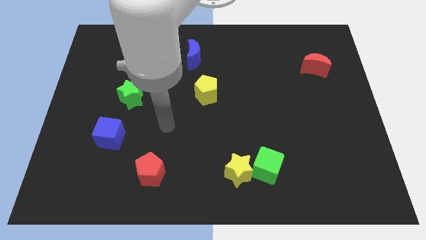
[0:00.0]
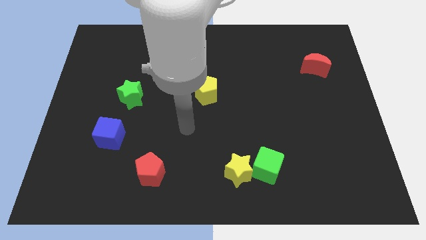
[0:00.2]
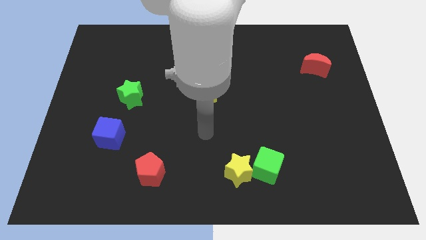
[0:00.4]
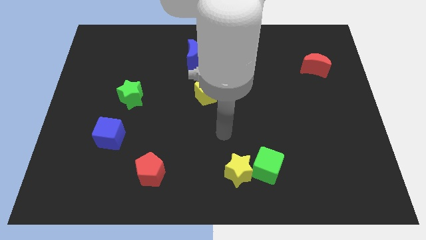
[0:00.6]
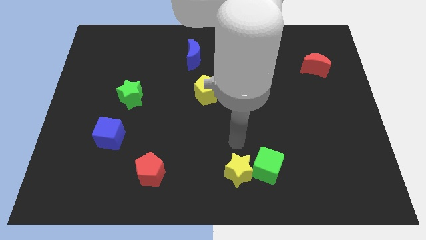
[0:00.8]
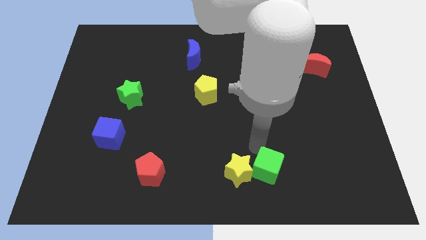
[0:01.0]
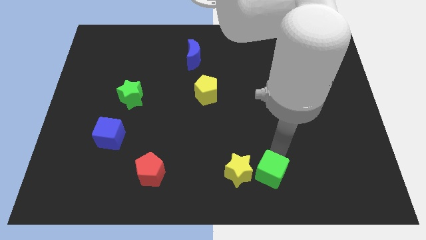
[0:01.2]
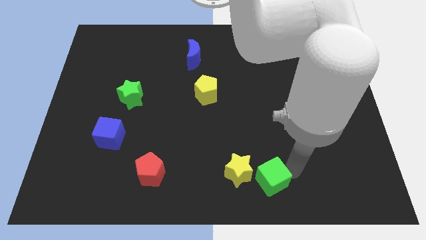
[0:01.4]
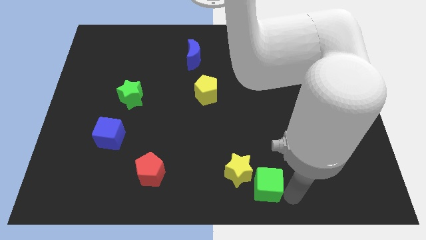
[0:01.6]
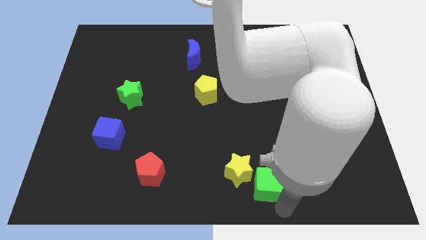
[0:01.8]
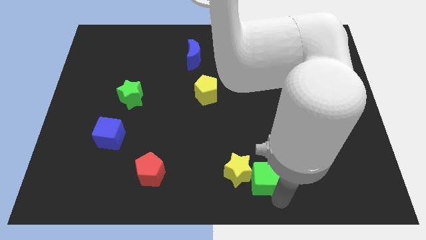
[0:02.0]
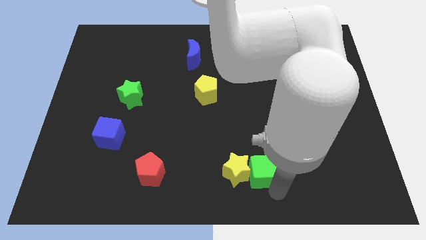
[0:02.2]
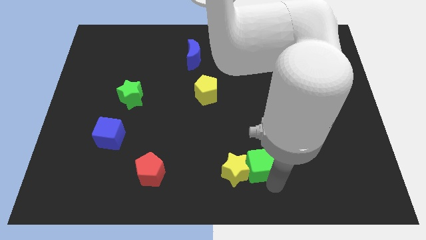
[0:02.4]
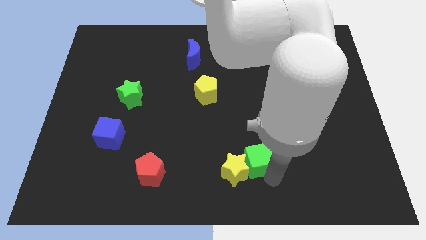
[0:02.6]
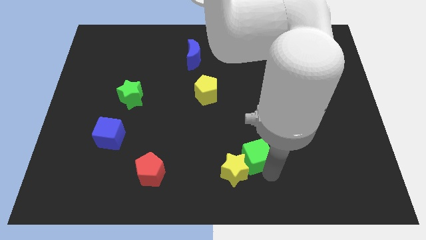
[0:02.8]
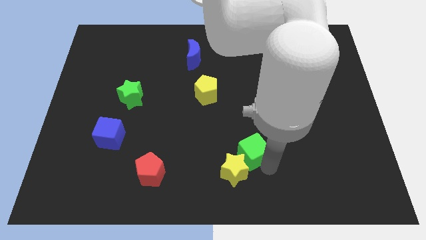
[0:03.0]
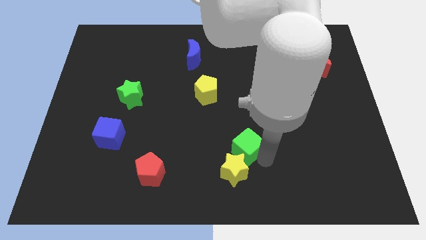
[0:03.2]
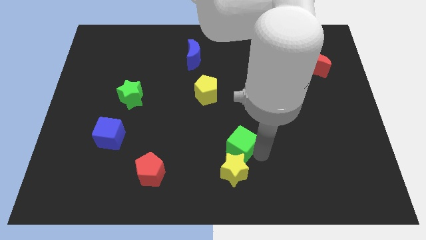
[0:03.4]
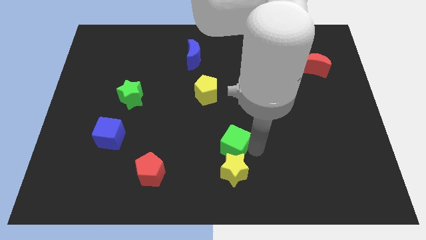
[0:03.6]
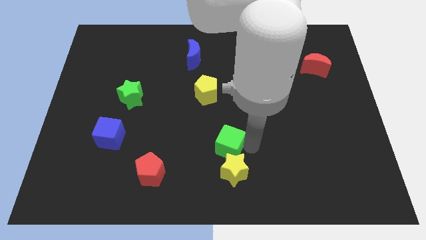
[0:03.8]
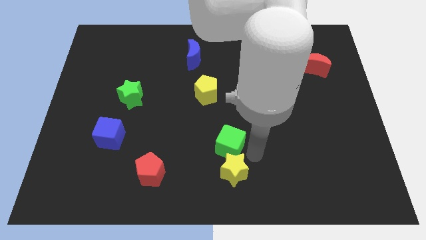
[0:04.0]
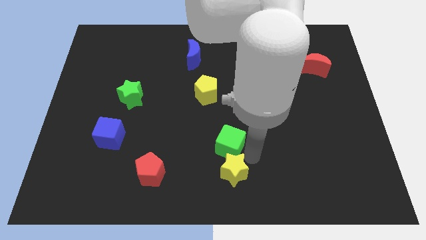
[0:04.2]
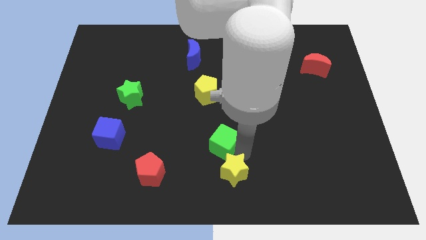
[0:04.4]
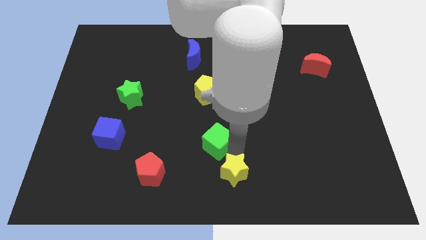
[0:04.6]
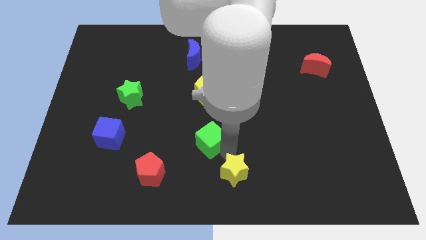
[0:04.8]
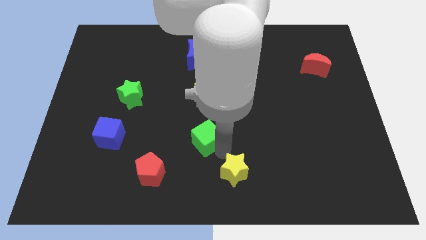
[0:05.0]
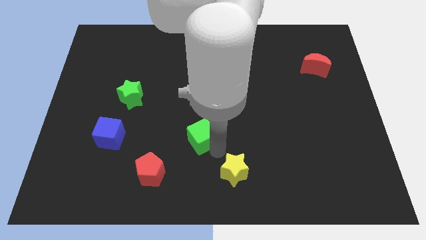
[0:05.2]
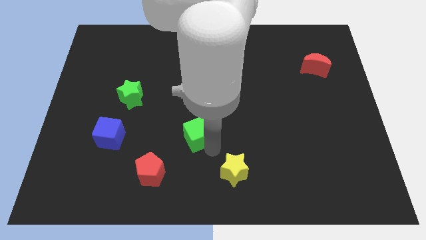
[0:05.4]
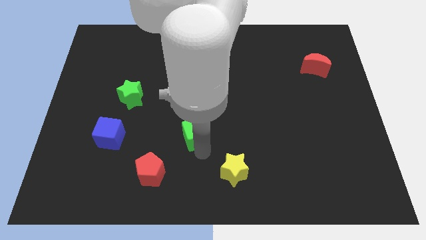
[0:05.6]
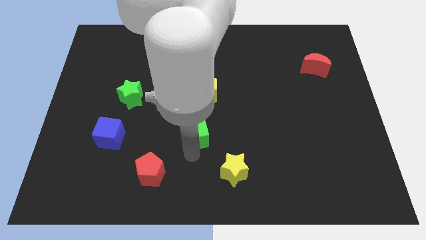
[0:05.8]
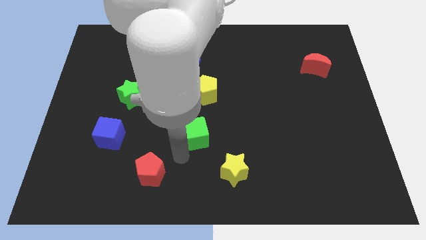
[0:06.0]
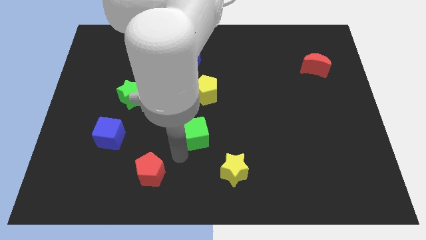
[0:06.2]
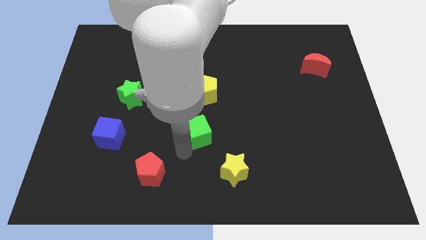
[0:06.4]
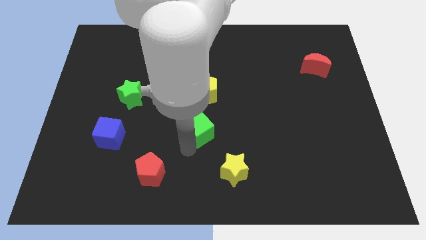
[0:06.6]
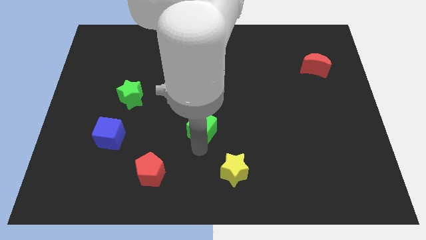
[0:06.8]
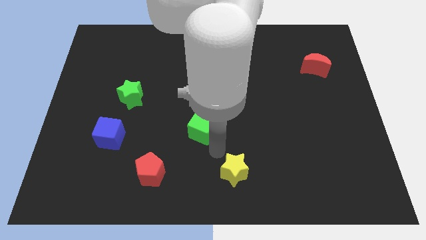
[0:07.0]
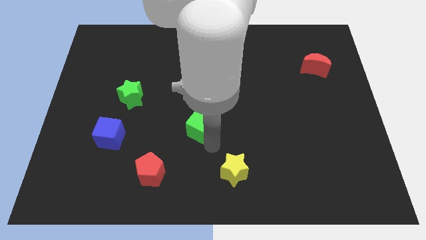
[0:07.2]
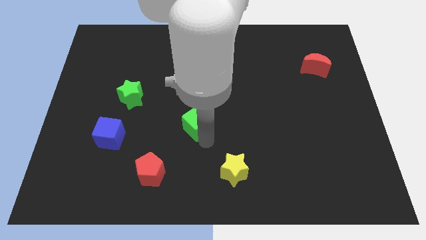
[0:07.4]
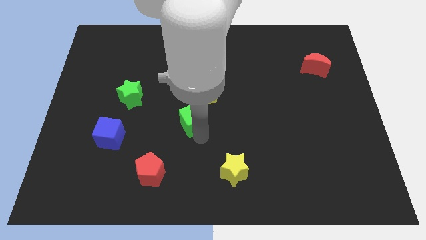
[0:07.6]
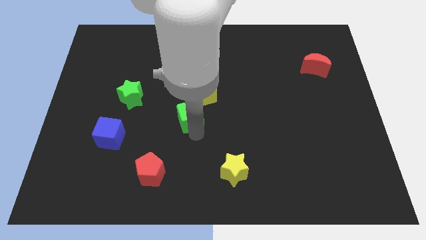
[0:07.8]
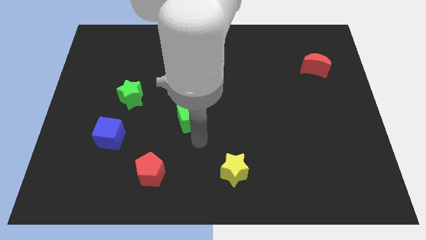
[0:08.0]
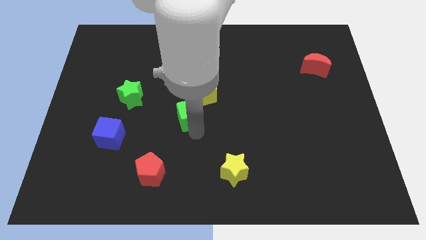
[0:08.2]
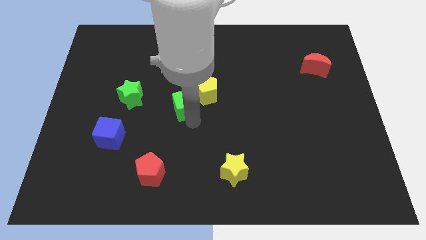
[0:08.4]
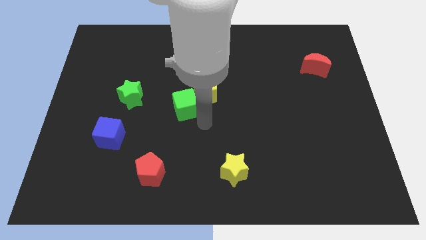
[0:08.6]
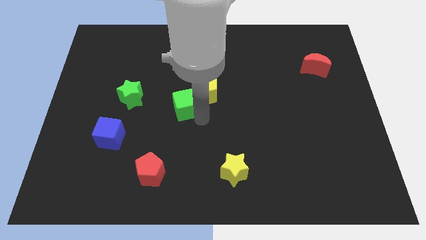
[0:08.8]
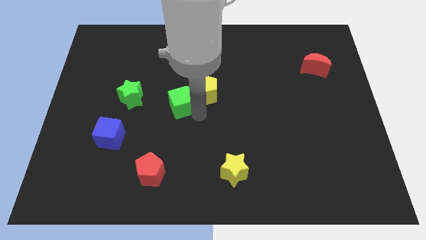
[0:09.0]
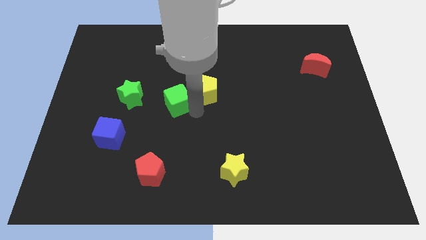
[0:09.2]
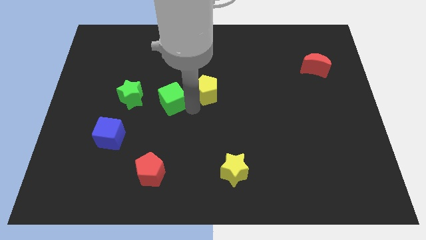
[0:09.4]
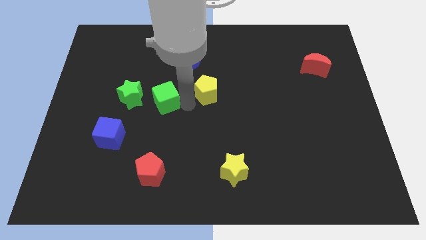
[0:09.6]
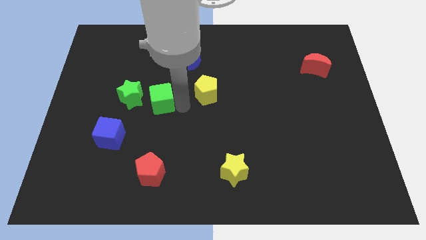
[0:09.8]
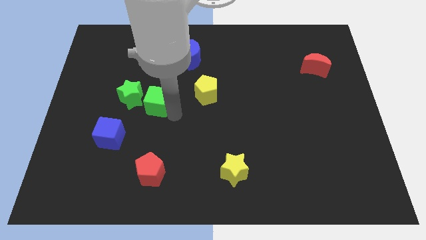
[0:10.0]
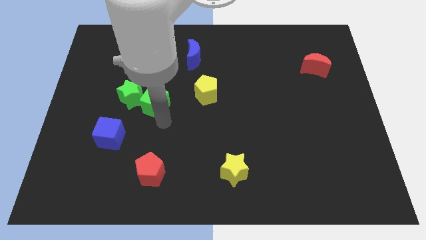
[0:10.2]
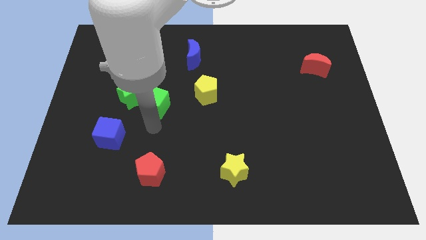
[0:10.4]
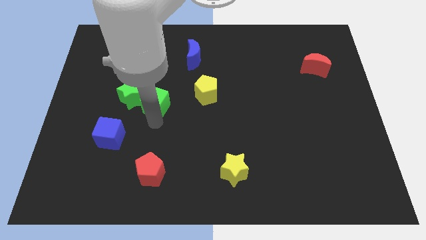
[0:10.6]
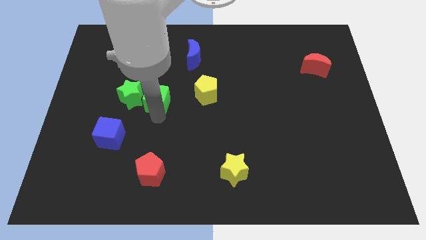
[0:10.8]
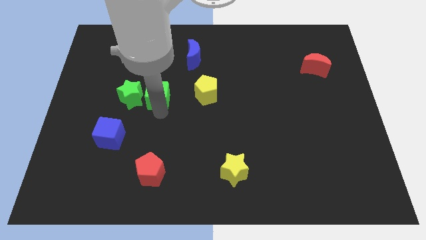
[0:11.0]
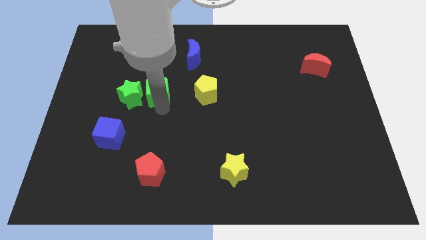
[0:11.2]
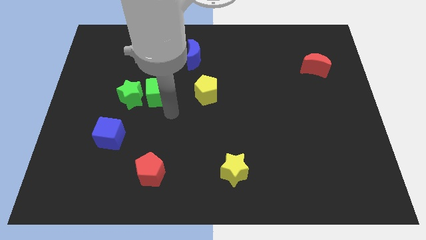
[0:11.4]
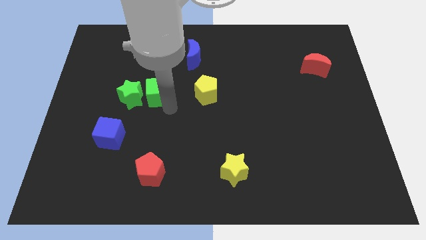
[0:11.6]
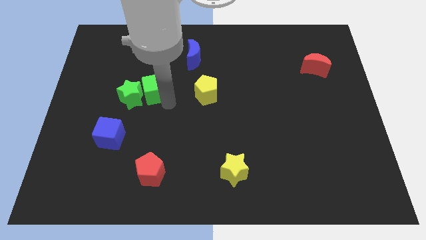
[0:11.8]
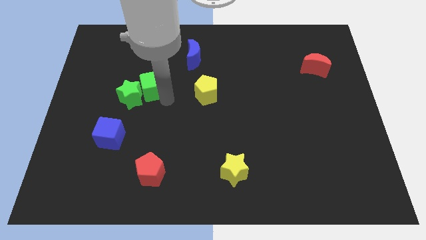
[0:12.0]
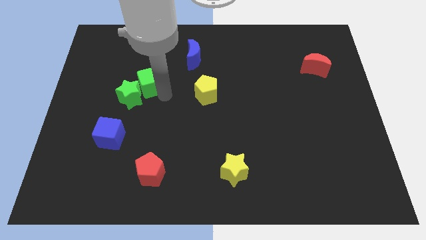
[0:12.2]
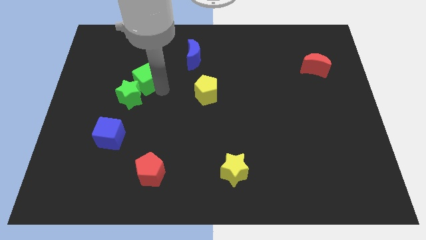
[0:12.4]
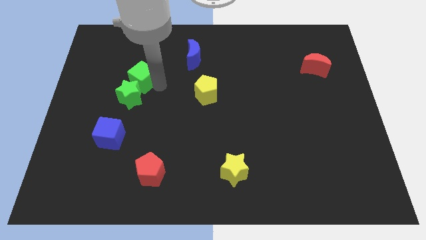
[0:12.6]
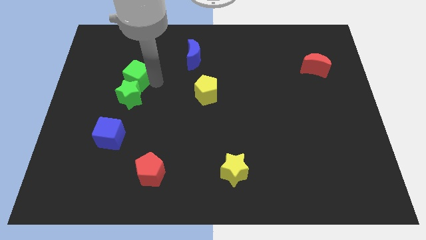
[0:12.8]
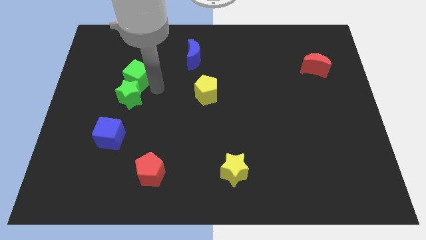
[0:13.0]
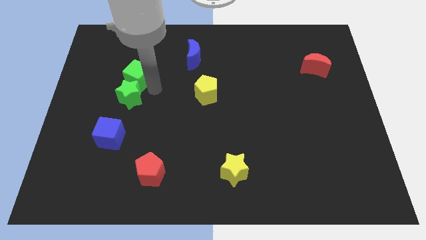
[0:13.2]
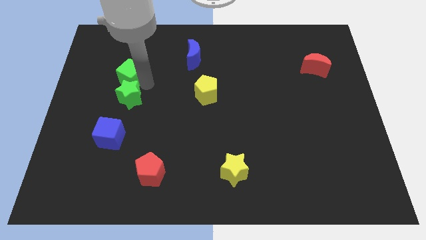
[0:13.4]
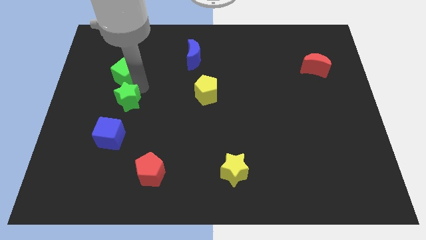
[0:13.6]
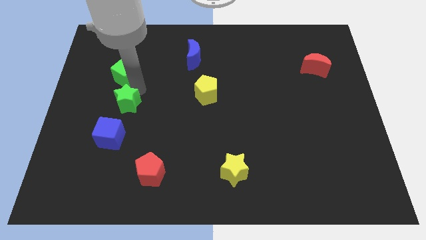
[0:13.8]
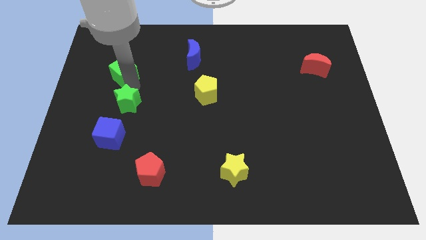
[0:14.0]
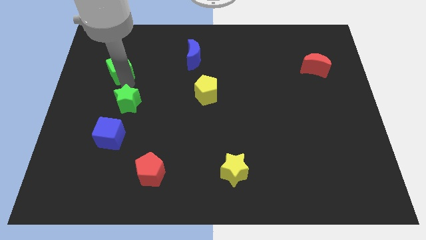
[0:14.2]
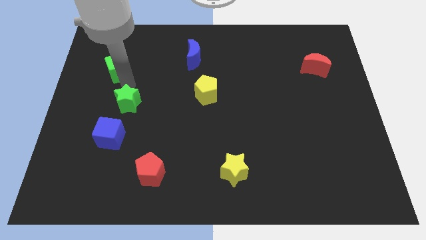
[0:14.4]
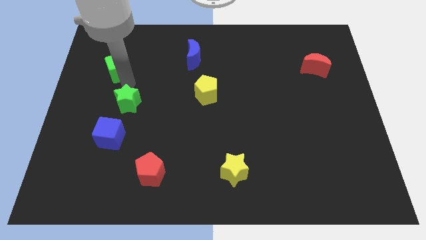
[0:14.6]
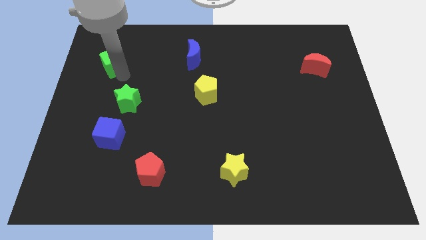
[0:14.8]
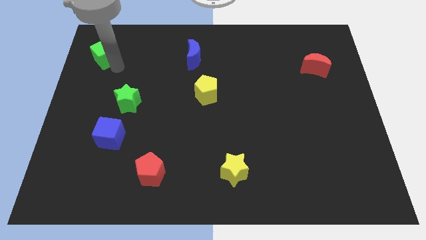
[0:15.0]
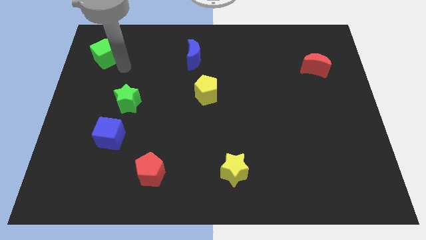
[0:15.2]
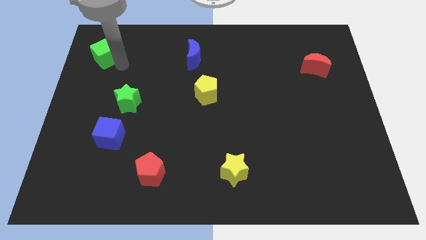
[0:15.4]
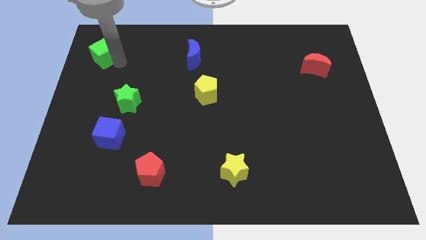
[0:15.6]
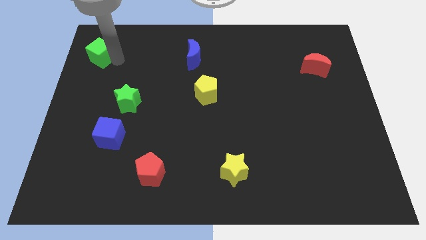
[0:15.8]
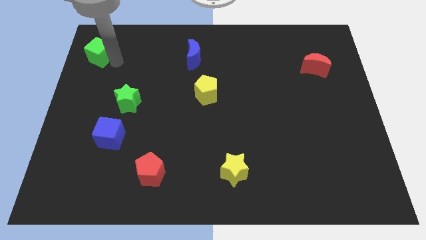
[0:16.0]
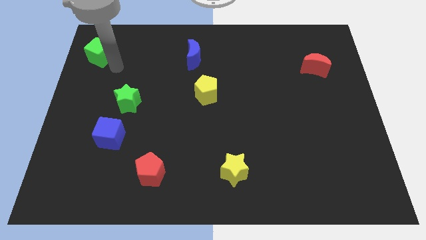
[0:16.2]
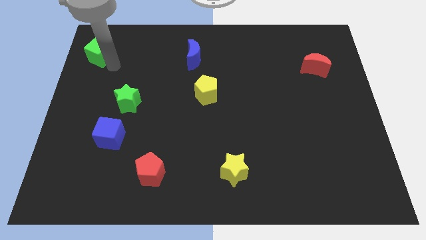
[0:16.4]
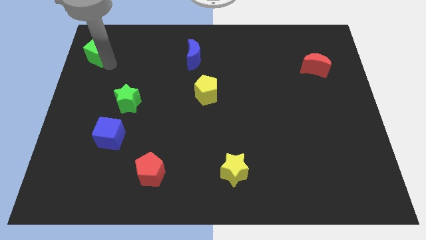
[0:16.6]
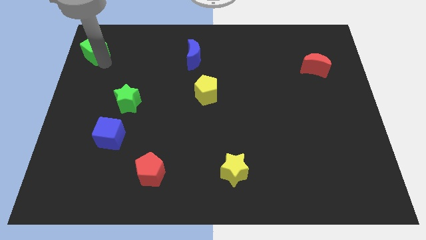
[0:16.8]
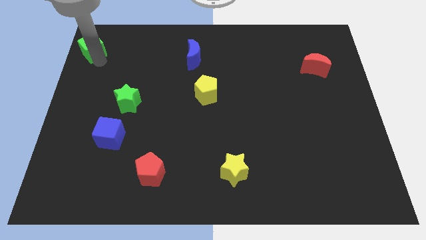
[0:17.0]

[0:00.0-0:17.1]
push the green cube to the top left of the board
